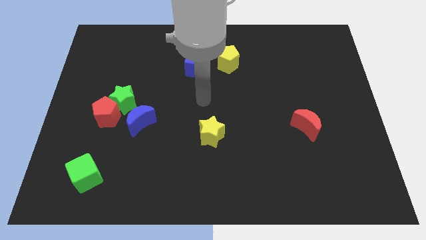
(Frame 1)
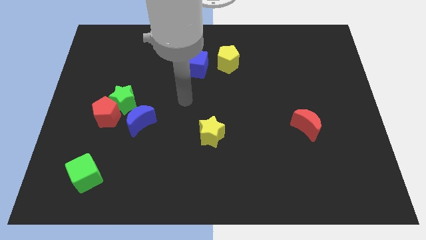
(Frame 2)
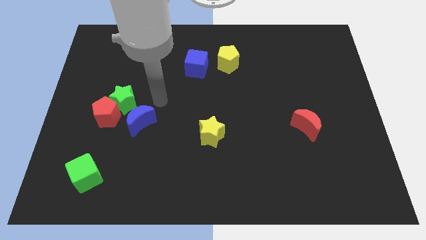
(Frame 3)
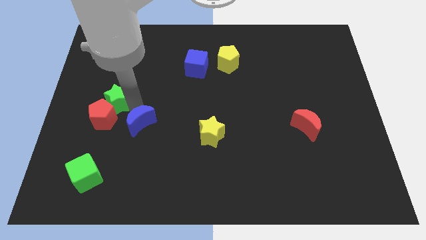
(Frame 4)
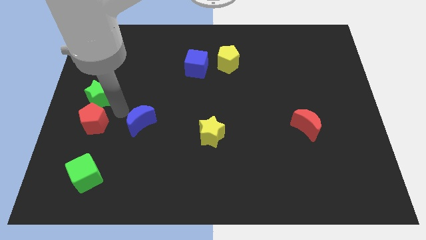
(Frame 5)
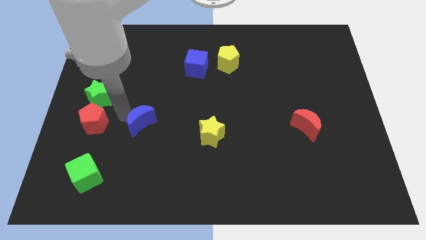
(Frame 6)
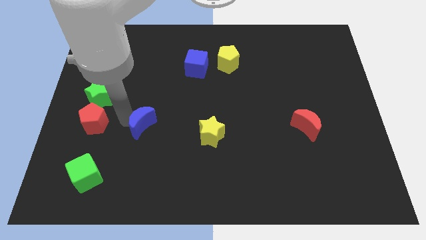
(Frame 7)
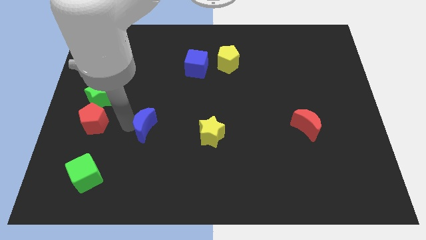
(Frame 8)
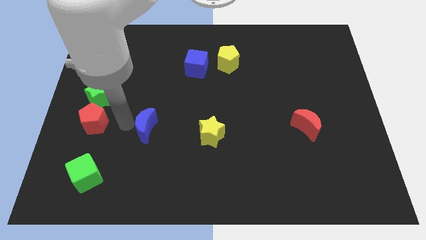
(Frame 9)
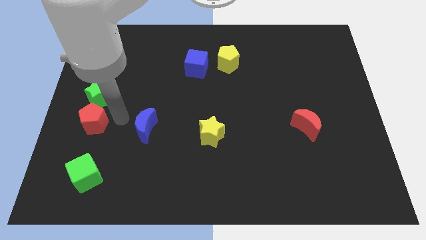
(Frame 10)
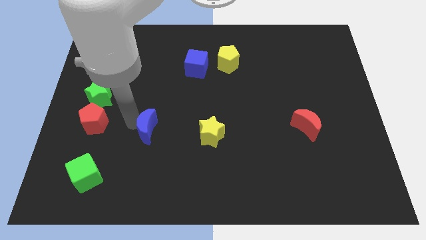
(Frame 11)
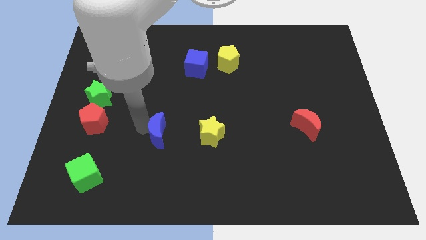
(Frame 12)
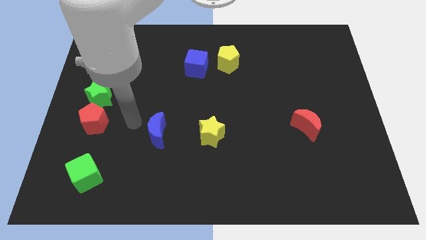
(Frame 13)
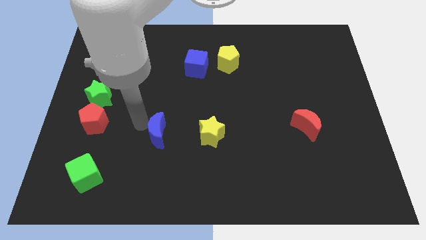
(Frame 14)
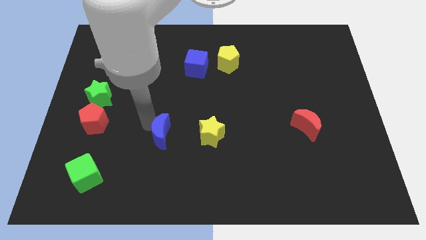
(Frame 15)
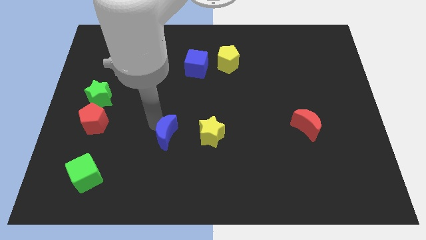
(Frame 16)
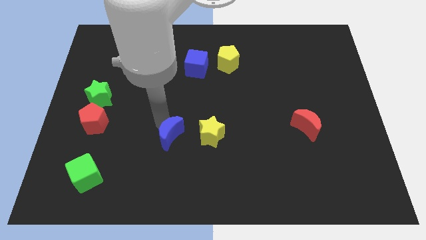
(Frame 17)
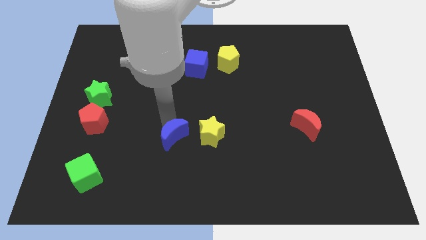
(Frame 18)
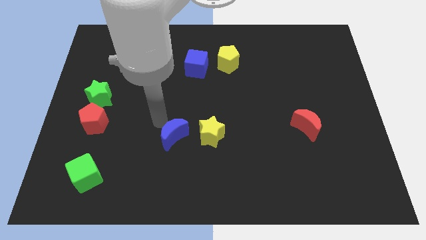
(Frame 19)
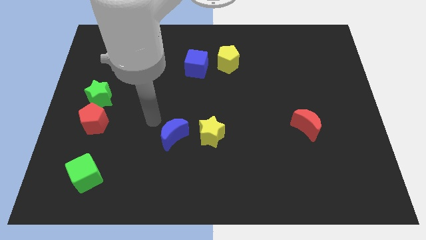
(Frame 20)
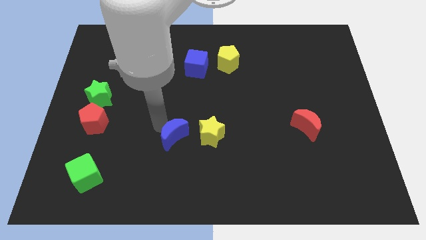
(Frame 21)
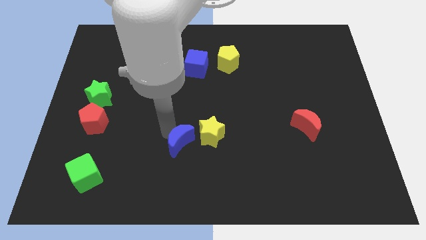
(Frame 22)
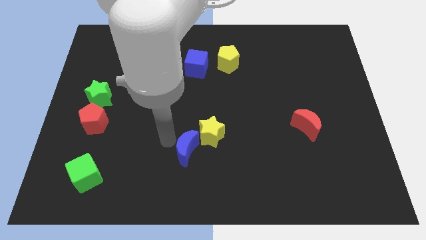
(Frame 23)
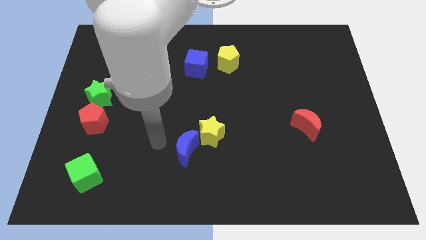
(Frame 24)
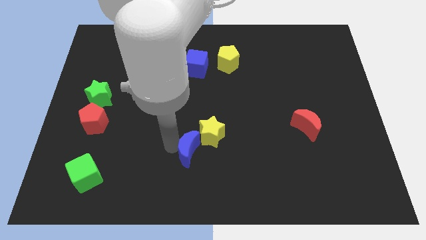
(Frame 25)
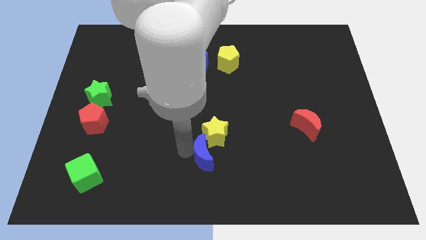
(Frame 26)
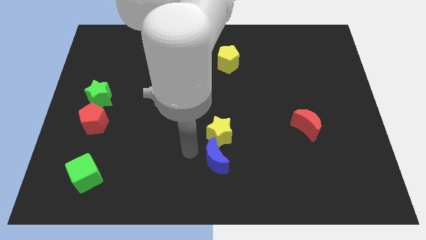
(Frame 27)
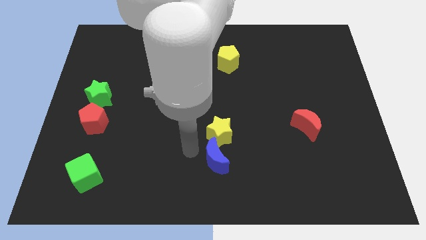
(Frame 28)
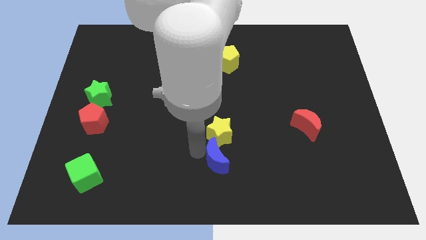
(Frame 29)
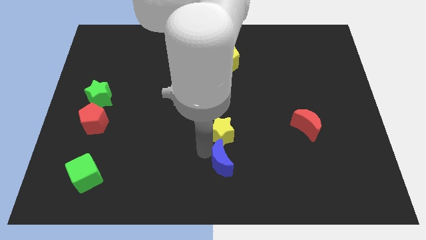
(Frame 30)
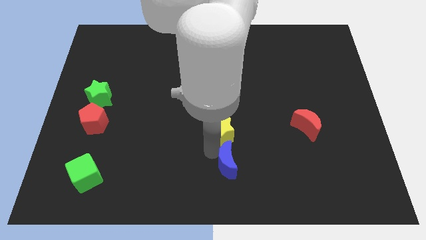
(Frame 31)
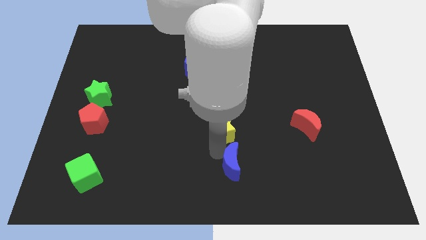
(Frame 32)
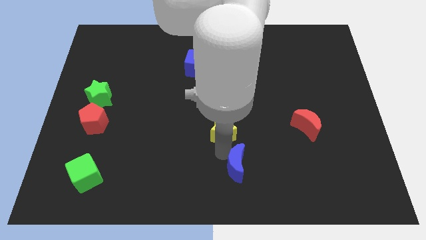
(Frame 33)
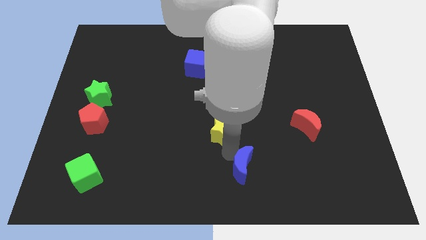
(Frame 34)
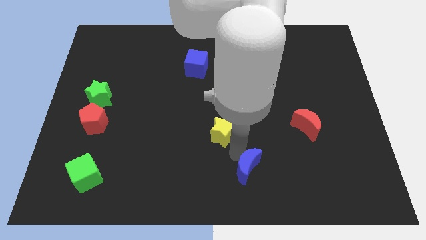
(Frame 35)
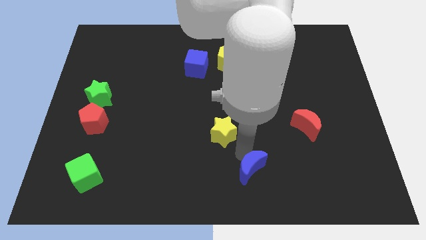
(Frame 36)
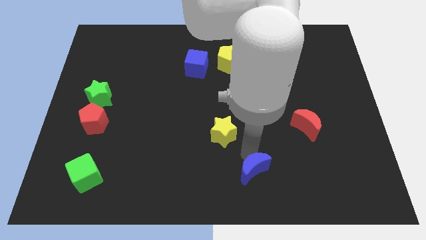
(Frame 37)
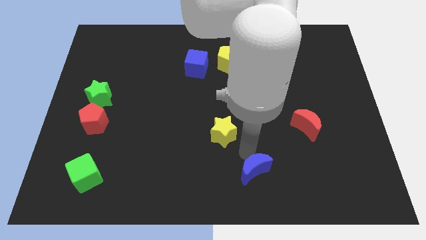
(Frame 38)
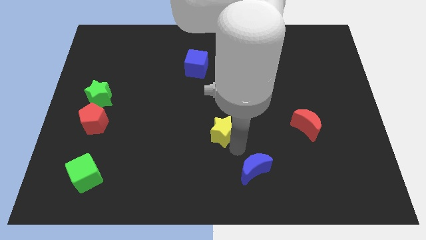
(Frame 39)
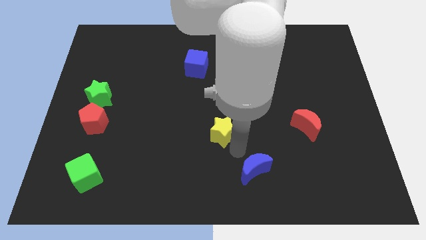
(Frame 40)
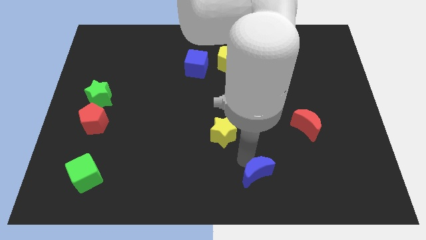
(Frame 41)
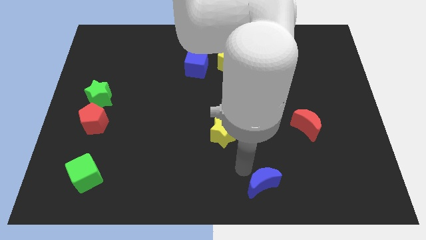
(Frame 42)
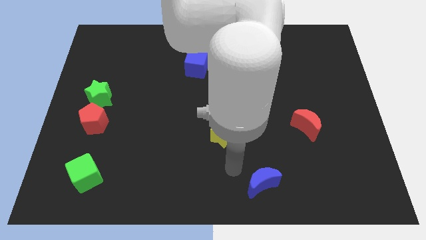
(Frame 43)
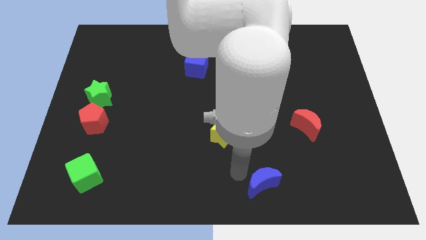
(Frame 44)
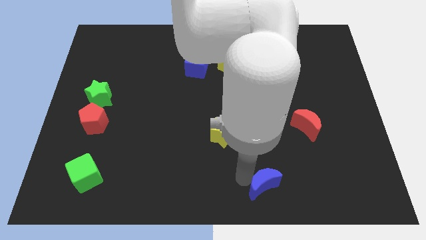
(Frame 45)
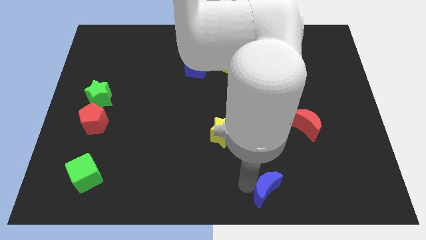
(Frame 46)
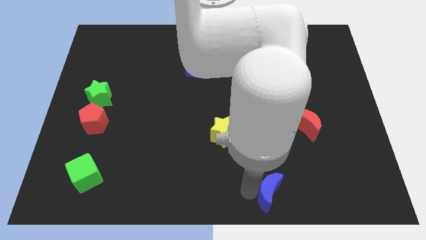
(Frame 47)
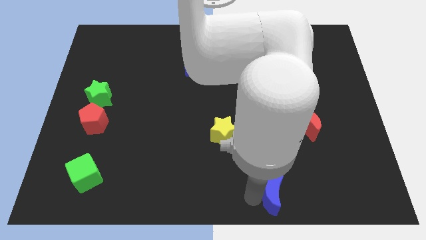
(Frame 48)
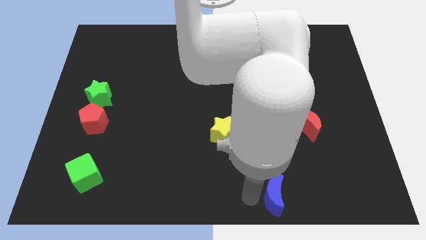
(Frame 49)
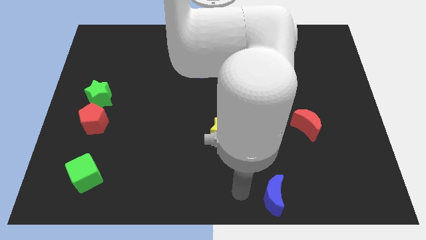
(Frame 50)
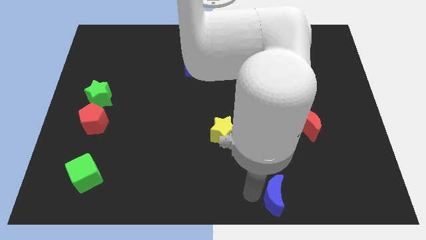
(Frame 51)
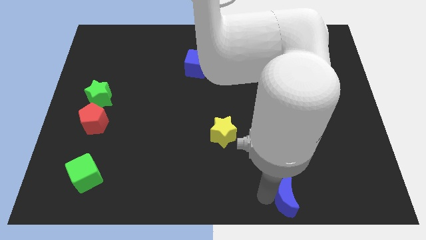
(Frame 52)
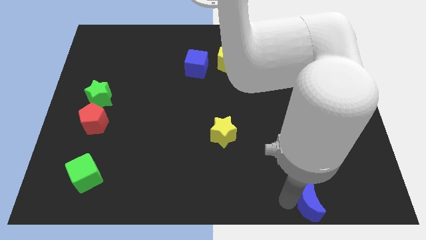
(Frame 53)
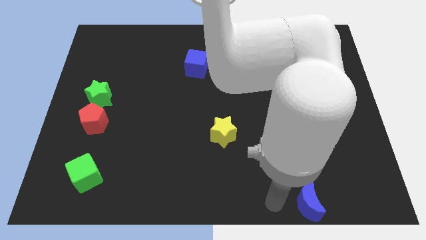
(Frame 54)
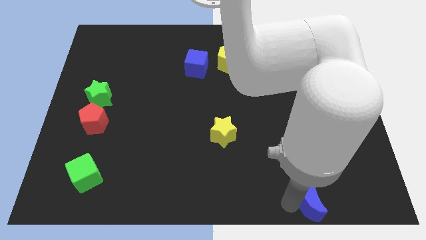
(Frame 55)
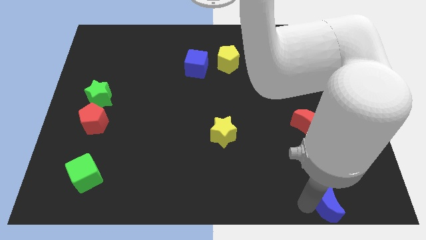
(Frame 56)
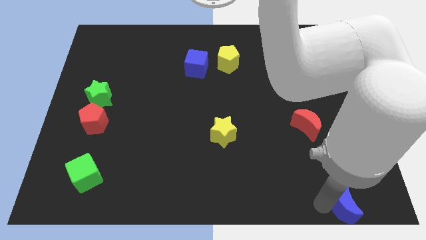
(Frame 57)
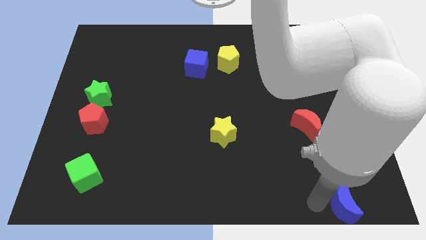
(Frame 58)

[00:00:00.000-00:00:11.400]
put the blue moon to the bottom right corner
